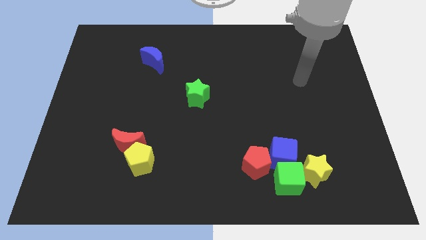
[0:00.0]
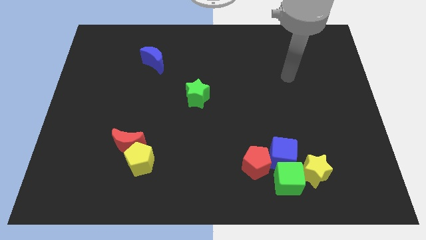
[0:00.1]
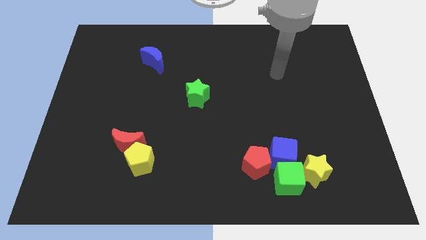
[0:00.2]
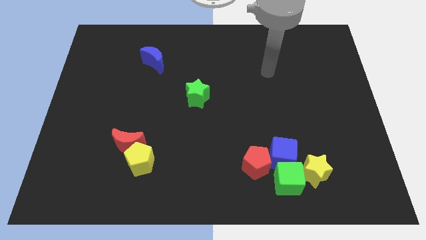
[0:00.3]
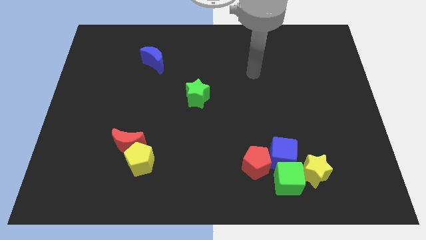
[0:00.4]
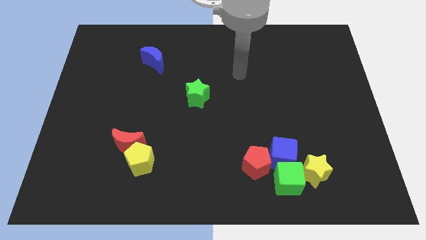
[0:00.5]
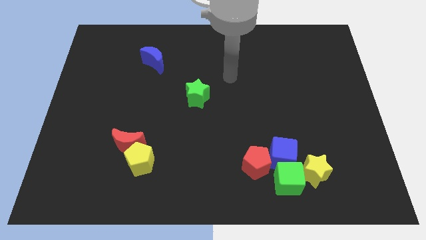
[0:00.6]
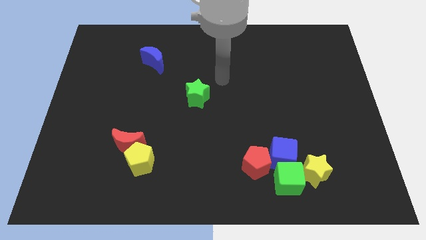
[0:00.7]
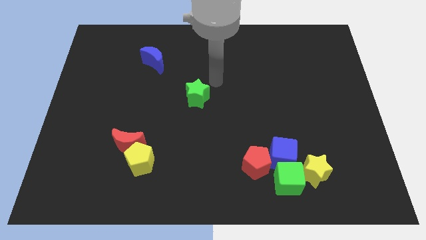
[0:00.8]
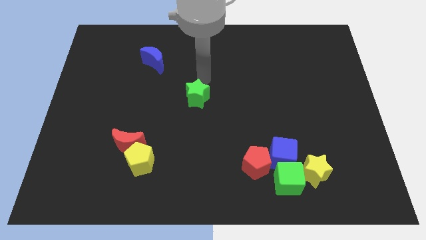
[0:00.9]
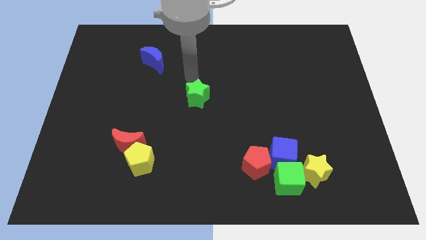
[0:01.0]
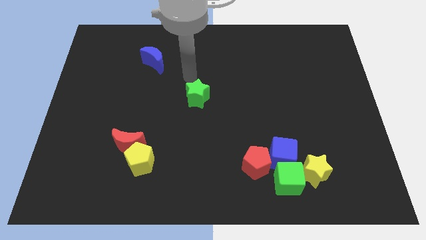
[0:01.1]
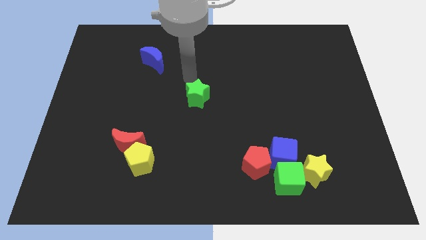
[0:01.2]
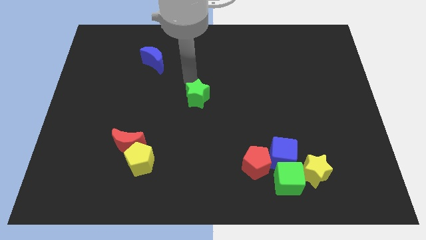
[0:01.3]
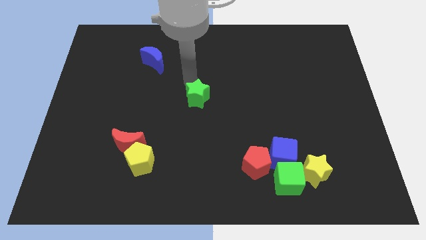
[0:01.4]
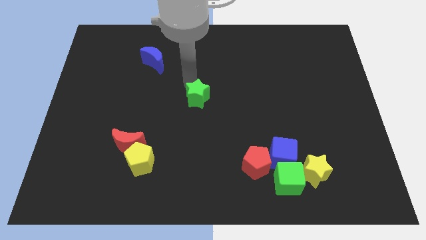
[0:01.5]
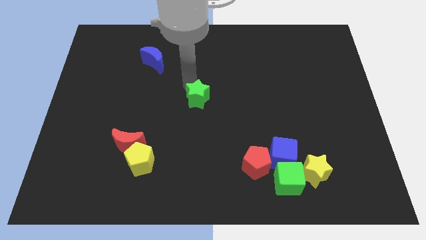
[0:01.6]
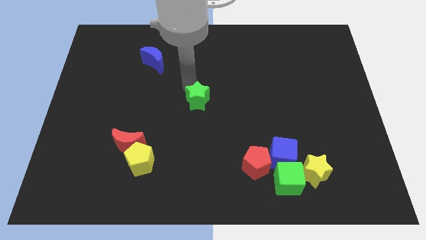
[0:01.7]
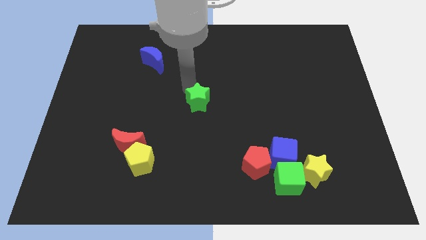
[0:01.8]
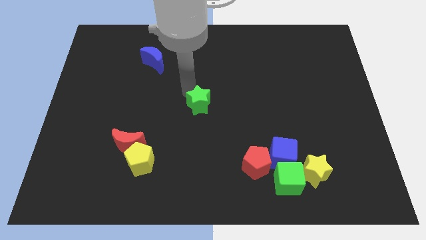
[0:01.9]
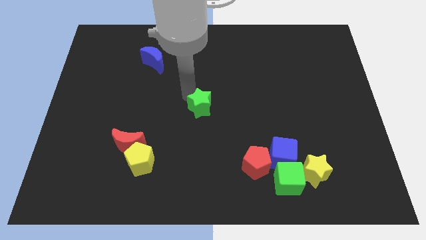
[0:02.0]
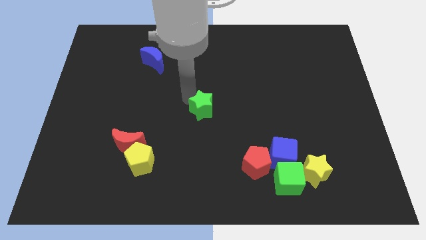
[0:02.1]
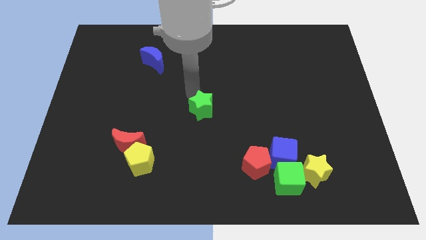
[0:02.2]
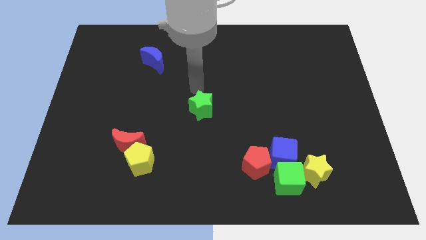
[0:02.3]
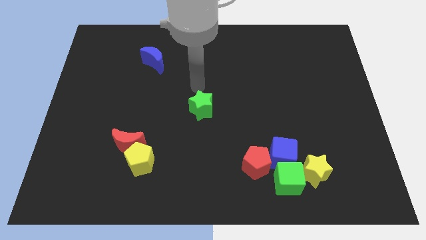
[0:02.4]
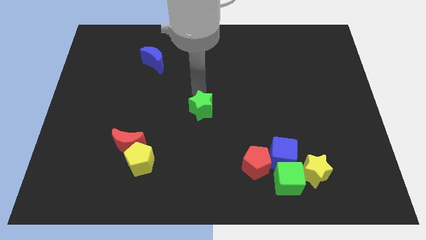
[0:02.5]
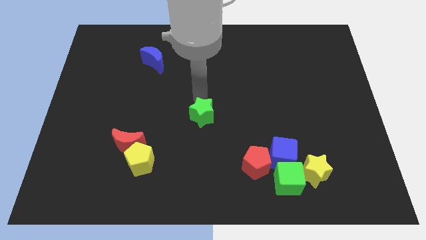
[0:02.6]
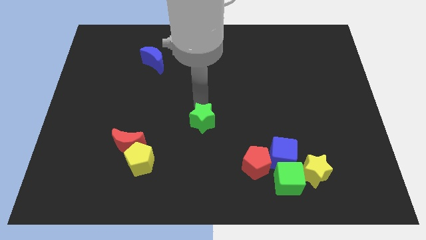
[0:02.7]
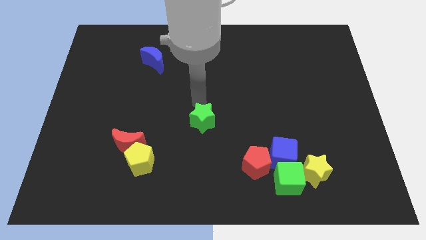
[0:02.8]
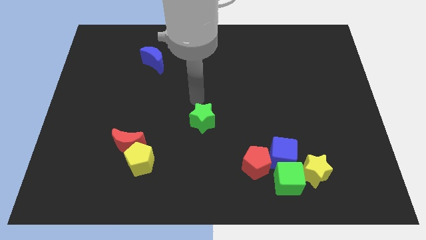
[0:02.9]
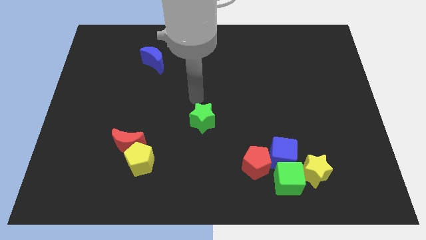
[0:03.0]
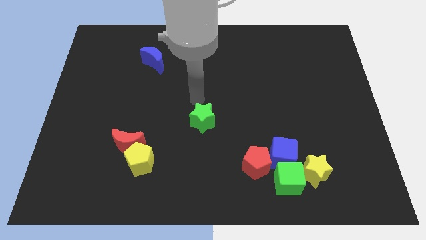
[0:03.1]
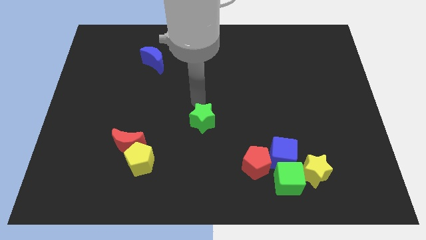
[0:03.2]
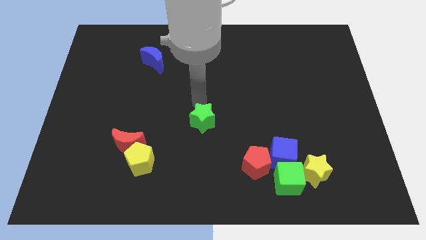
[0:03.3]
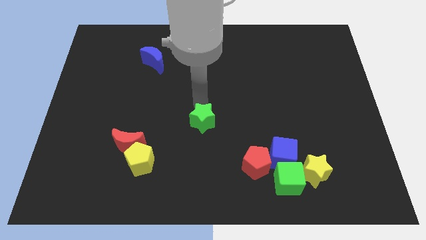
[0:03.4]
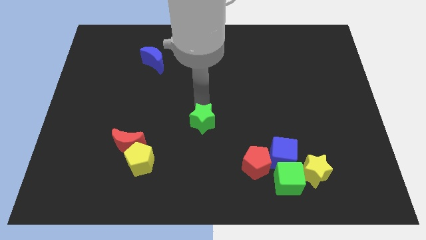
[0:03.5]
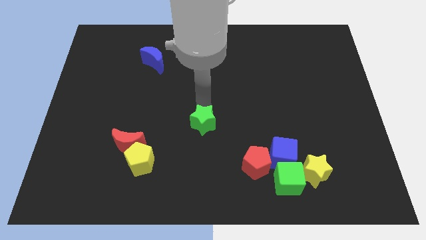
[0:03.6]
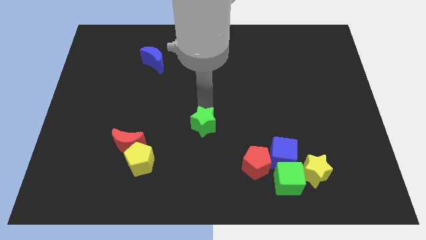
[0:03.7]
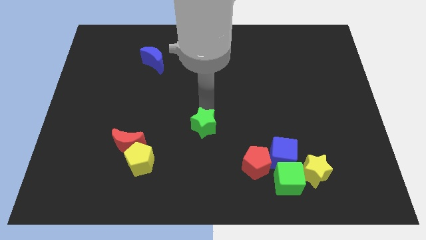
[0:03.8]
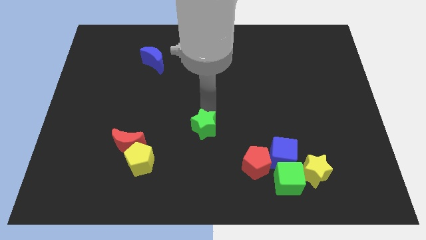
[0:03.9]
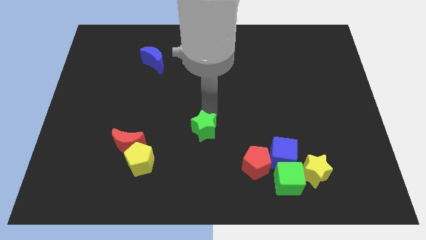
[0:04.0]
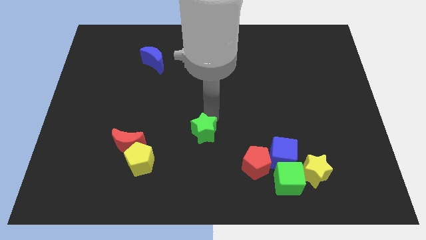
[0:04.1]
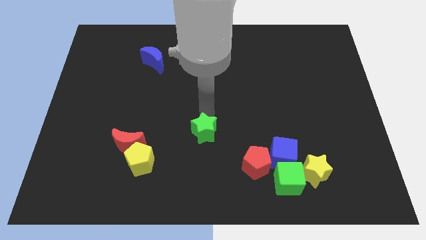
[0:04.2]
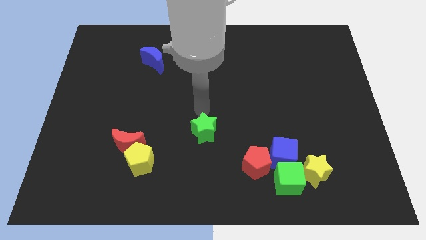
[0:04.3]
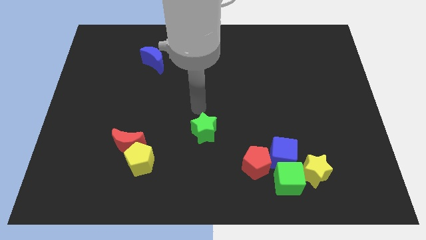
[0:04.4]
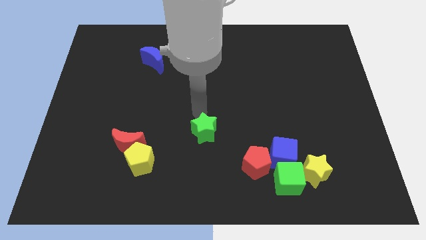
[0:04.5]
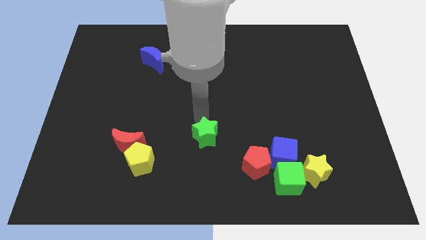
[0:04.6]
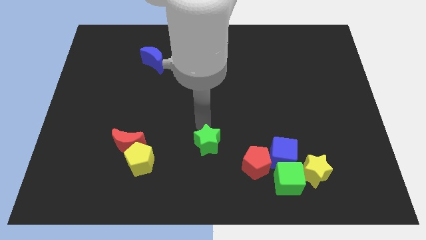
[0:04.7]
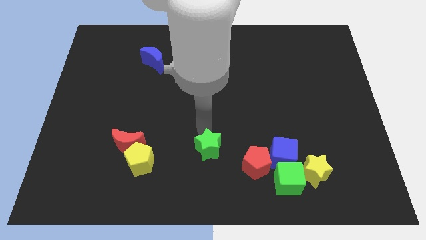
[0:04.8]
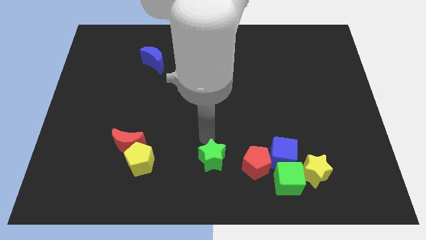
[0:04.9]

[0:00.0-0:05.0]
push the green star to the bottom

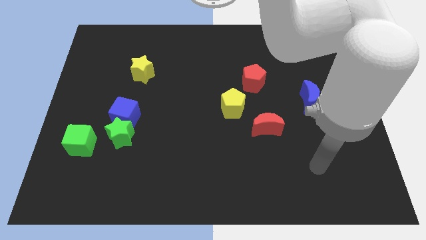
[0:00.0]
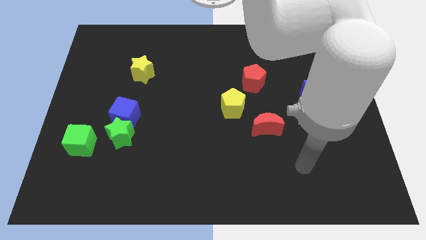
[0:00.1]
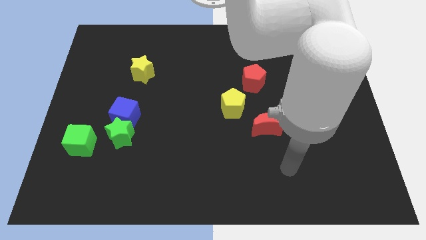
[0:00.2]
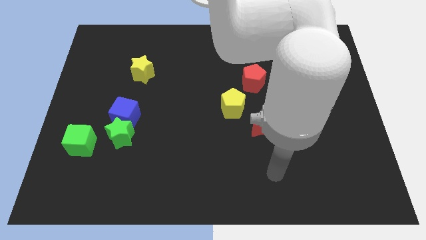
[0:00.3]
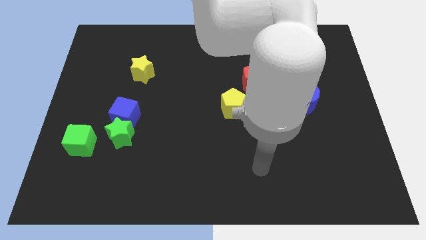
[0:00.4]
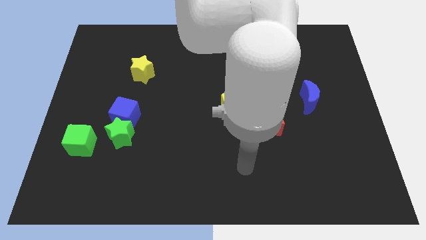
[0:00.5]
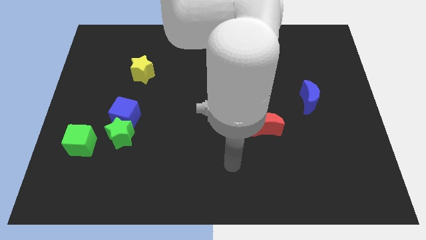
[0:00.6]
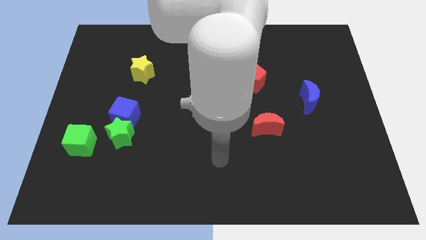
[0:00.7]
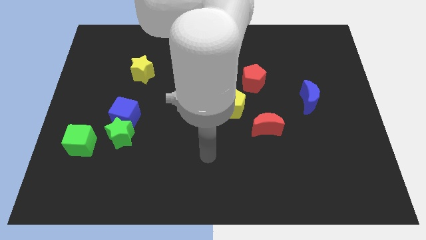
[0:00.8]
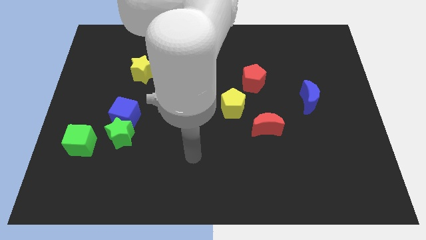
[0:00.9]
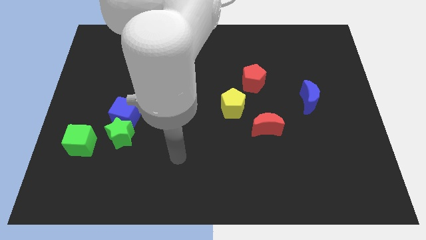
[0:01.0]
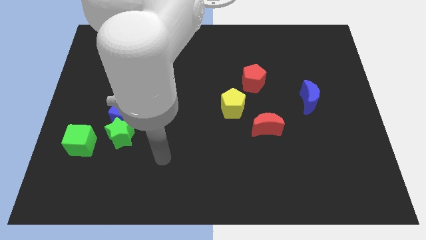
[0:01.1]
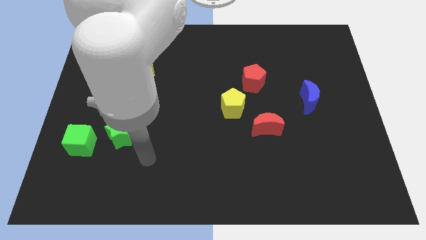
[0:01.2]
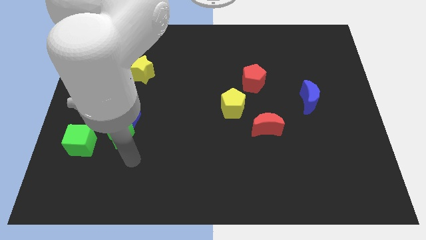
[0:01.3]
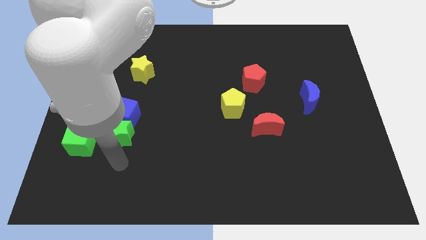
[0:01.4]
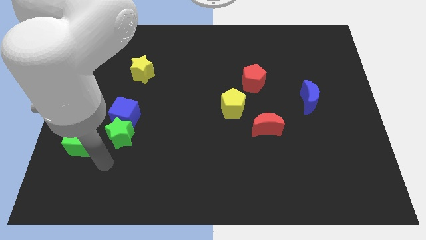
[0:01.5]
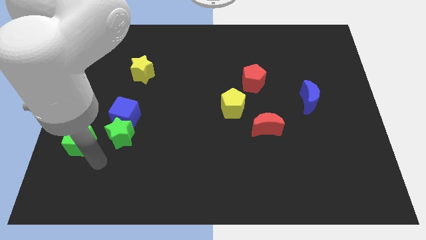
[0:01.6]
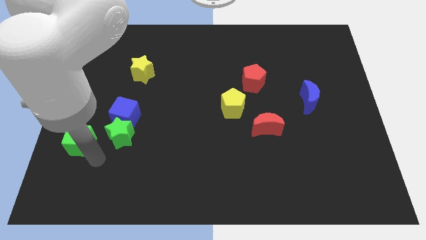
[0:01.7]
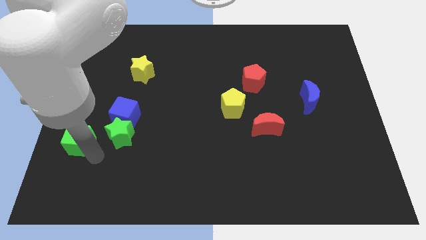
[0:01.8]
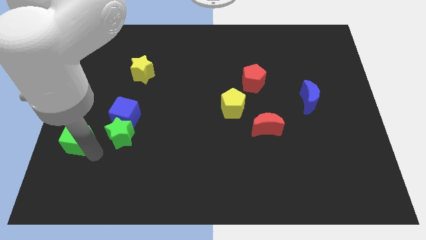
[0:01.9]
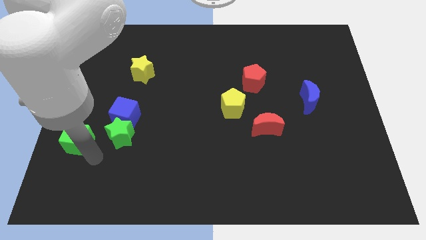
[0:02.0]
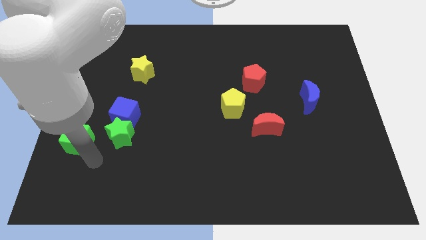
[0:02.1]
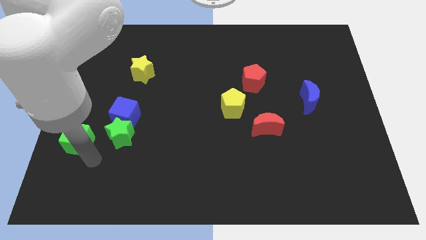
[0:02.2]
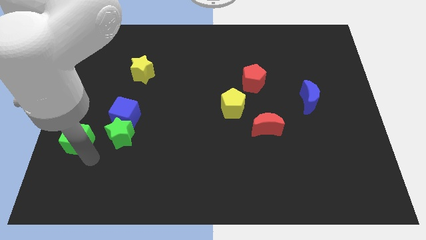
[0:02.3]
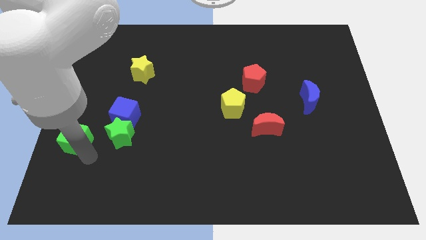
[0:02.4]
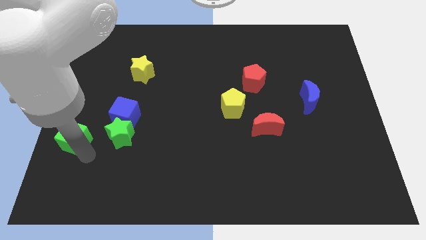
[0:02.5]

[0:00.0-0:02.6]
push the green cube to the left side of the board
